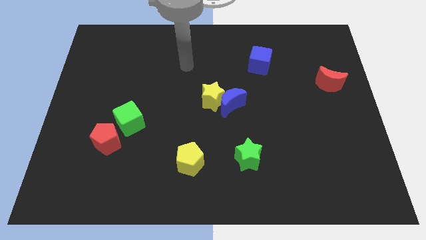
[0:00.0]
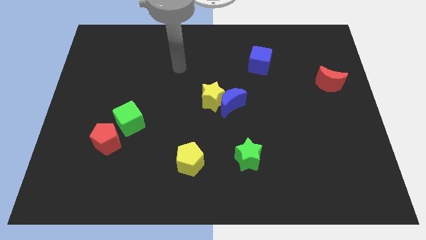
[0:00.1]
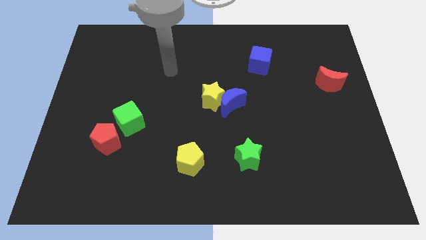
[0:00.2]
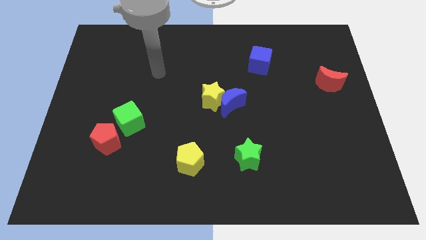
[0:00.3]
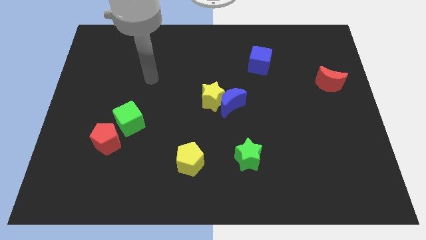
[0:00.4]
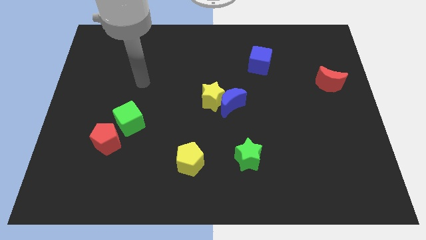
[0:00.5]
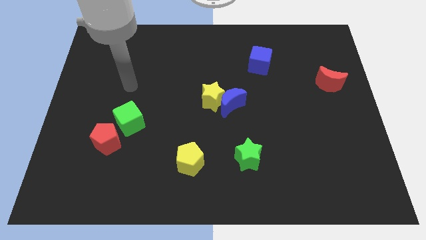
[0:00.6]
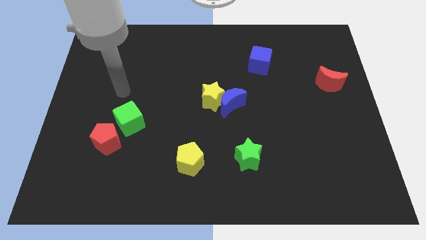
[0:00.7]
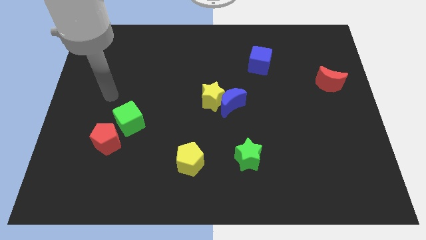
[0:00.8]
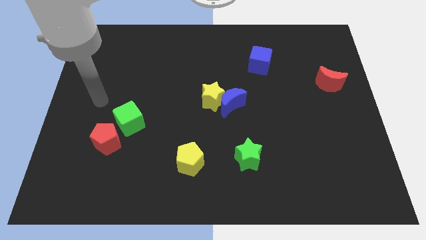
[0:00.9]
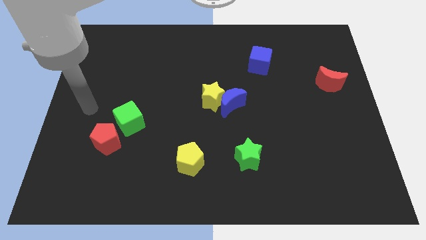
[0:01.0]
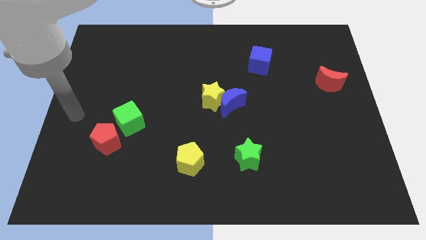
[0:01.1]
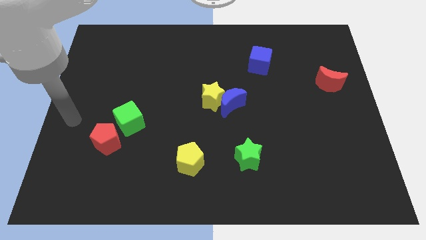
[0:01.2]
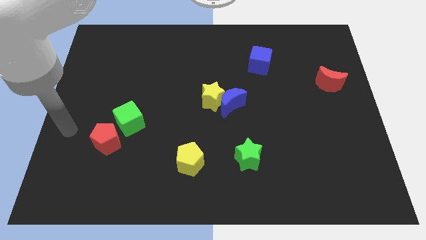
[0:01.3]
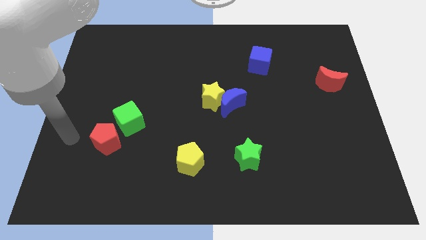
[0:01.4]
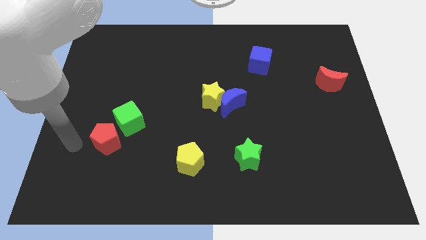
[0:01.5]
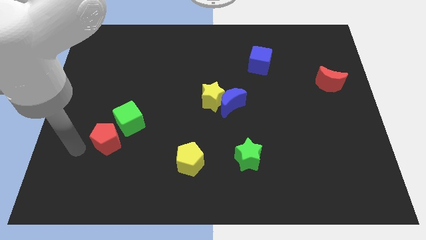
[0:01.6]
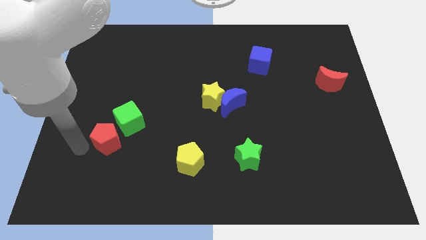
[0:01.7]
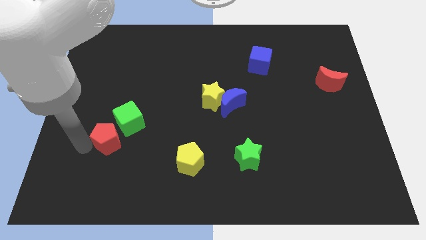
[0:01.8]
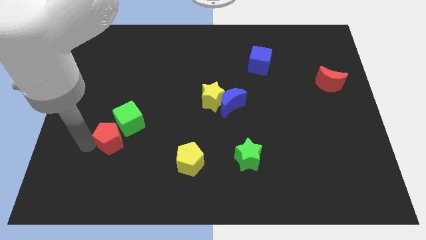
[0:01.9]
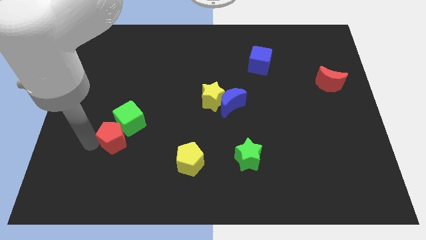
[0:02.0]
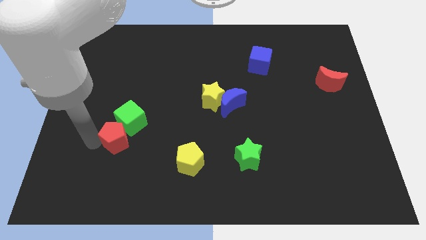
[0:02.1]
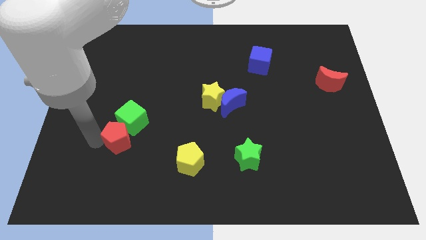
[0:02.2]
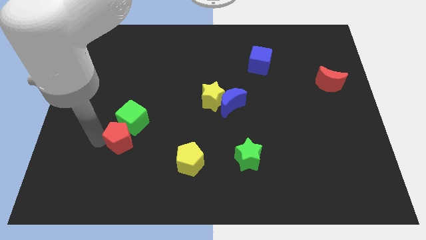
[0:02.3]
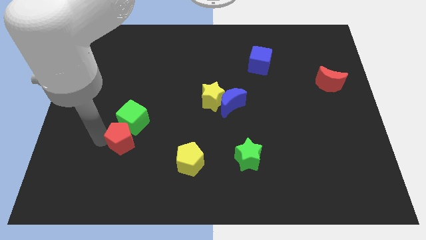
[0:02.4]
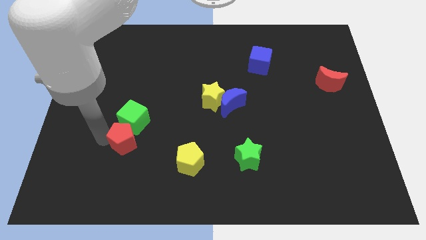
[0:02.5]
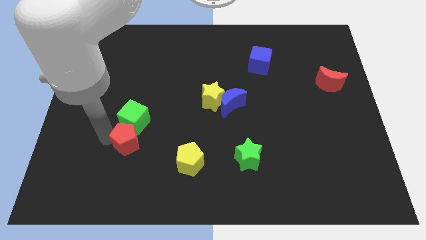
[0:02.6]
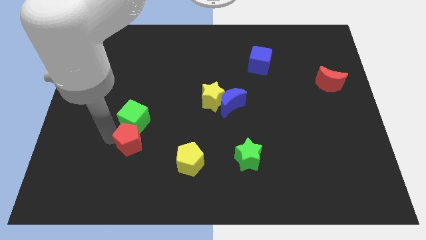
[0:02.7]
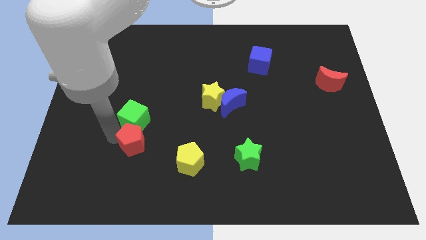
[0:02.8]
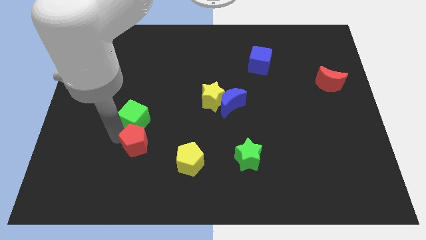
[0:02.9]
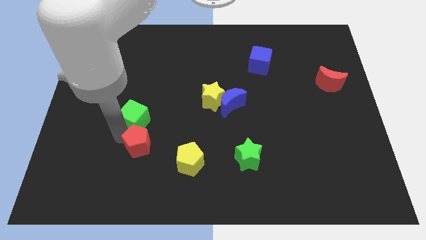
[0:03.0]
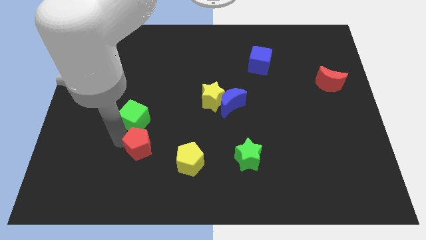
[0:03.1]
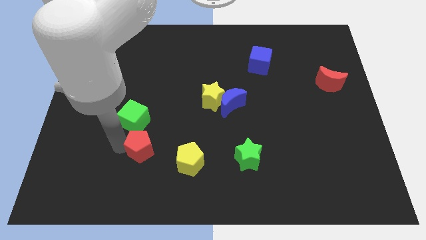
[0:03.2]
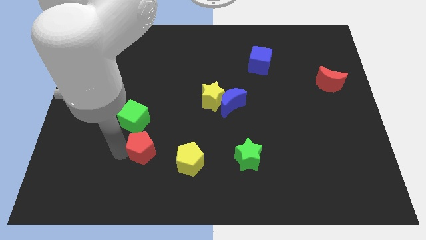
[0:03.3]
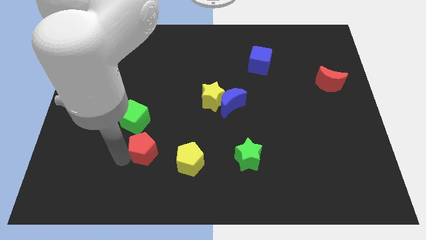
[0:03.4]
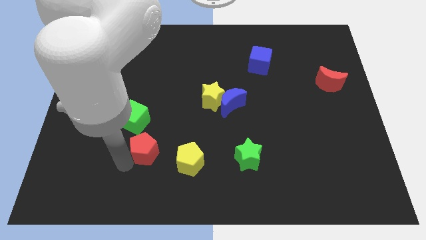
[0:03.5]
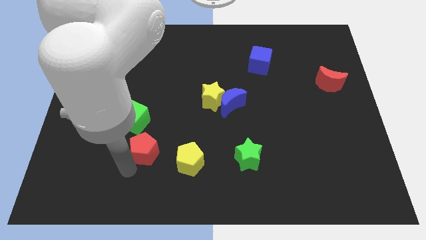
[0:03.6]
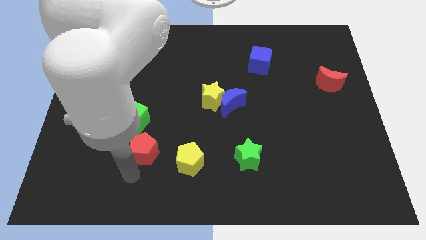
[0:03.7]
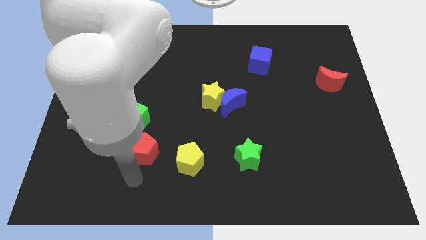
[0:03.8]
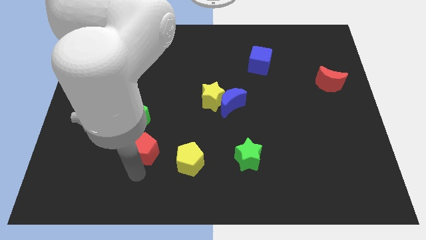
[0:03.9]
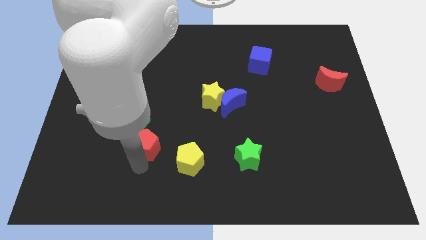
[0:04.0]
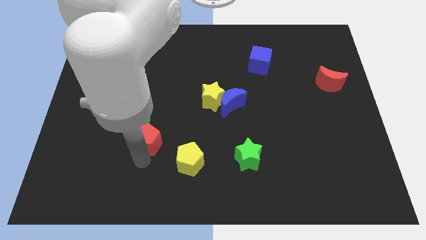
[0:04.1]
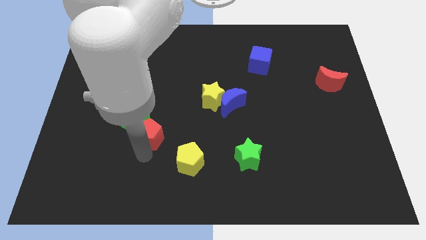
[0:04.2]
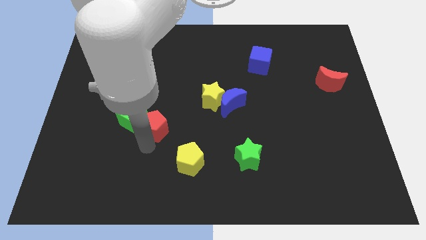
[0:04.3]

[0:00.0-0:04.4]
push the red pentagon diagonally upwards and right slightly

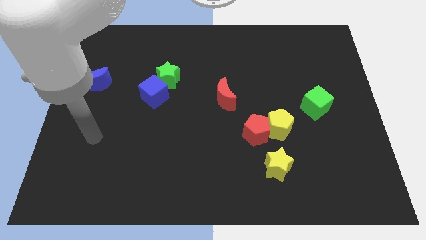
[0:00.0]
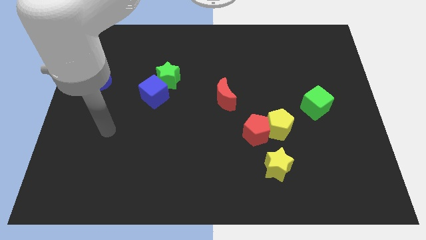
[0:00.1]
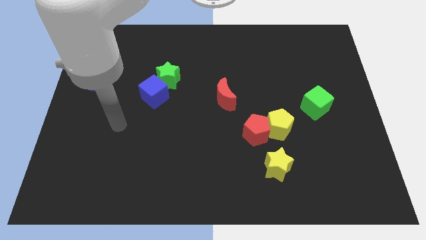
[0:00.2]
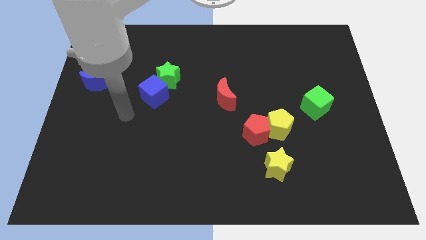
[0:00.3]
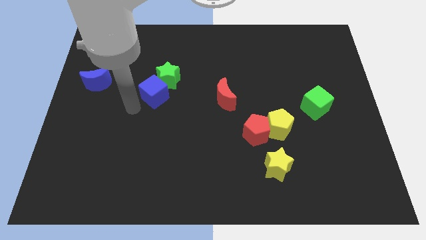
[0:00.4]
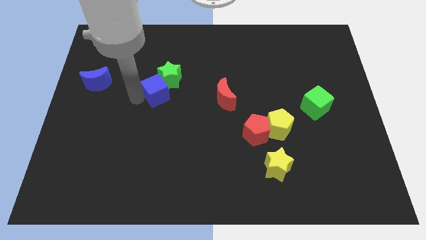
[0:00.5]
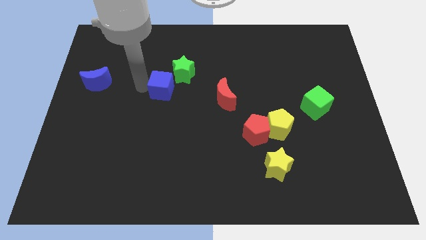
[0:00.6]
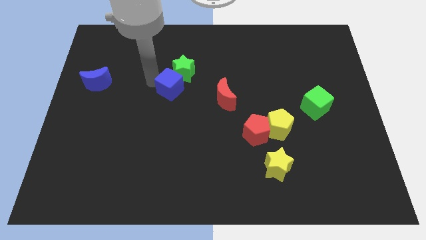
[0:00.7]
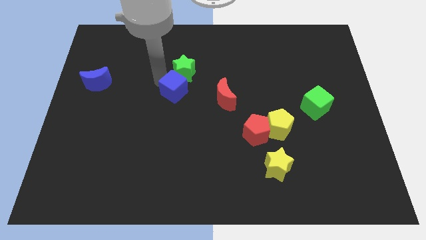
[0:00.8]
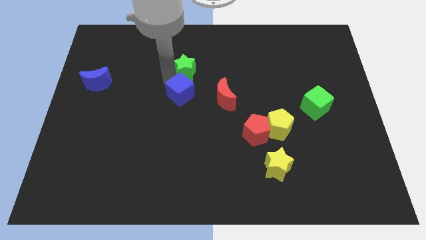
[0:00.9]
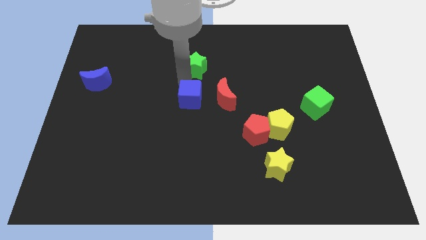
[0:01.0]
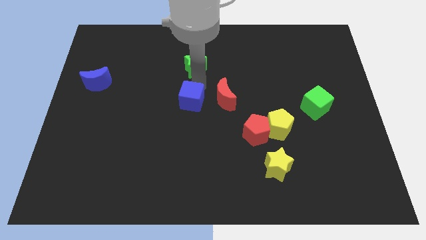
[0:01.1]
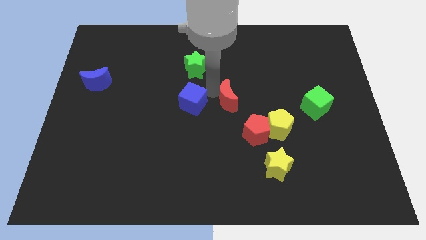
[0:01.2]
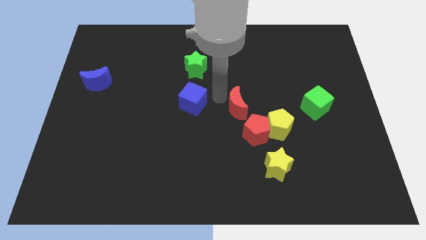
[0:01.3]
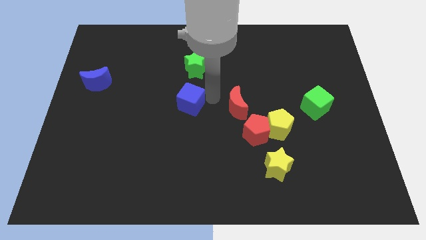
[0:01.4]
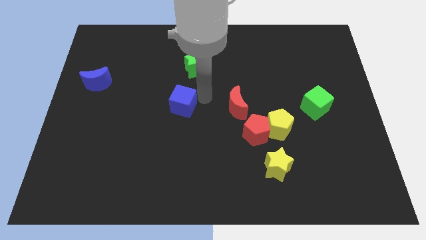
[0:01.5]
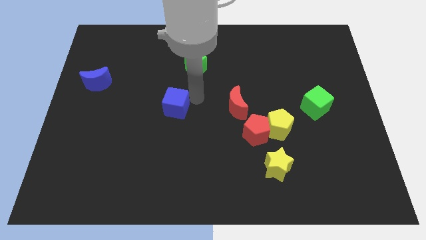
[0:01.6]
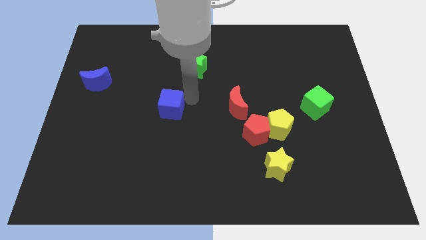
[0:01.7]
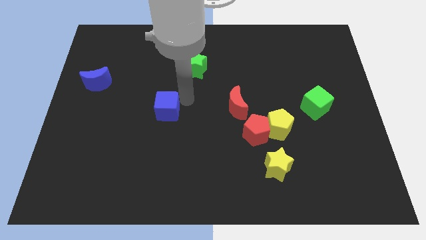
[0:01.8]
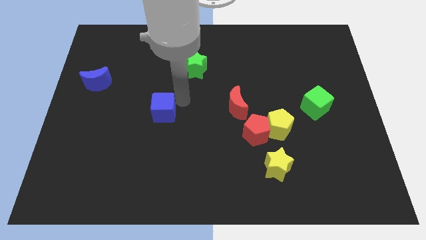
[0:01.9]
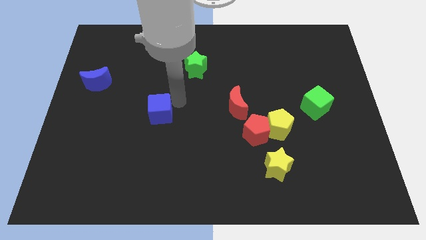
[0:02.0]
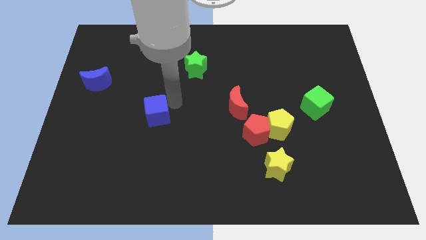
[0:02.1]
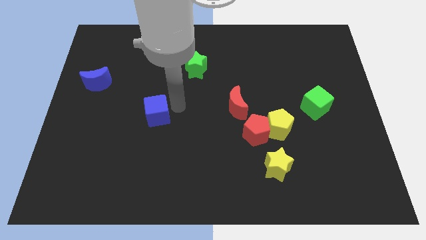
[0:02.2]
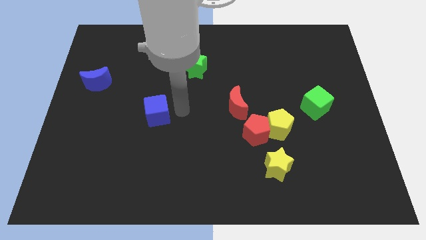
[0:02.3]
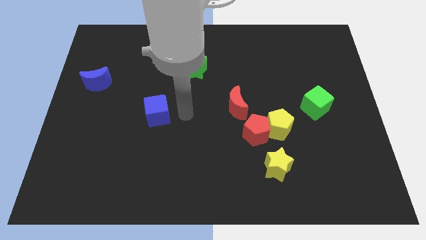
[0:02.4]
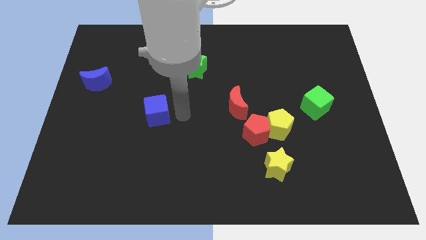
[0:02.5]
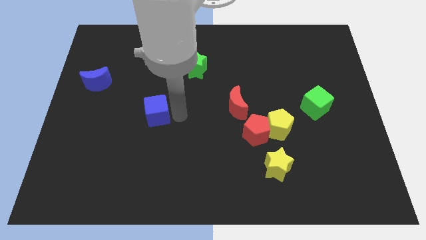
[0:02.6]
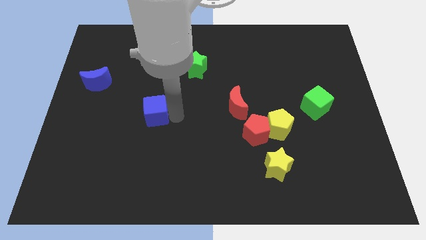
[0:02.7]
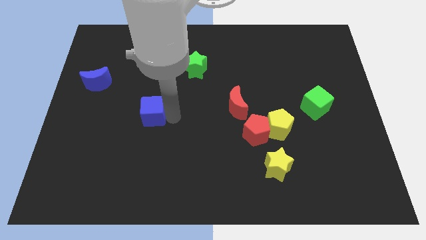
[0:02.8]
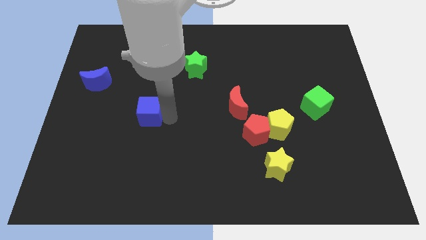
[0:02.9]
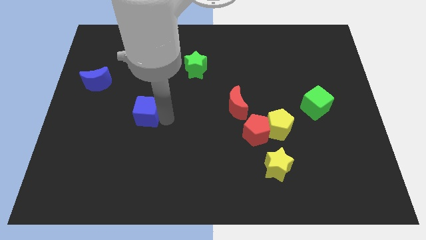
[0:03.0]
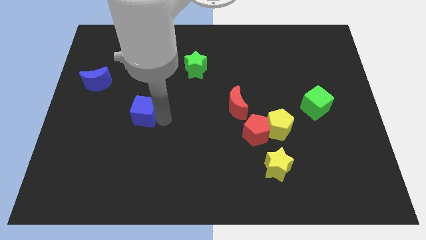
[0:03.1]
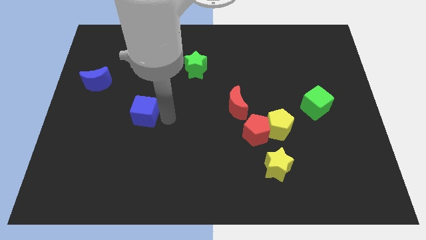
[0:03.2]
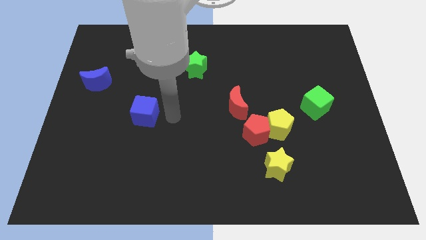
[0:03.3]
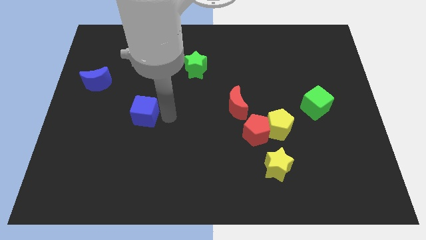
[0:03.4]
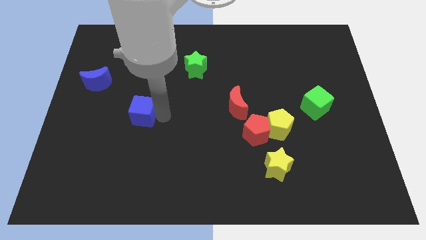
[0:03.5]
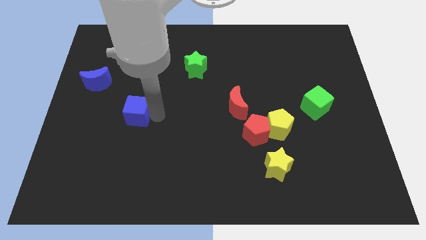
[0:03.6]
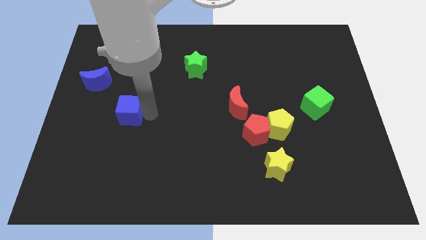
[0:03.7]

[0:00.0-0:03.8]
push the blue cube slightly diagonally downwards and to the left
